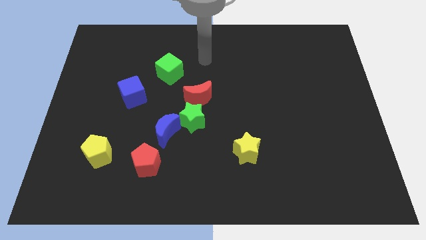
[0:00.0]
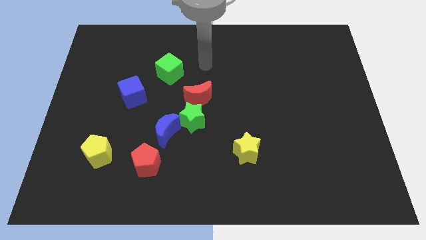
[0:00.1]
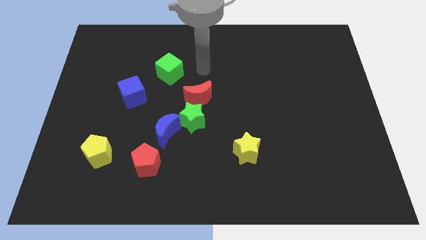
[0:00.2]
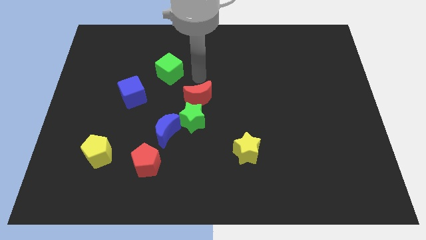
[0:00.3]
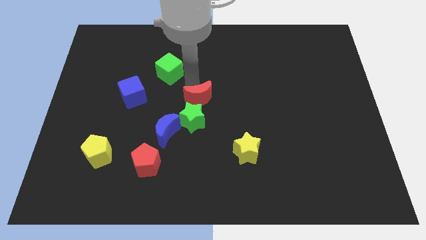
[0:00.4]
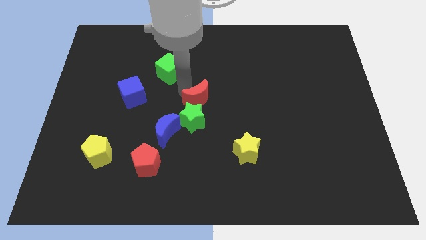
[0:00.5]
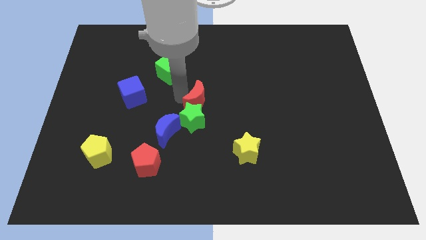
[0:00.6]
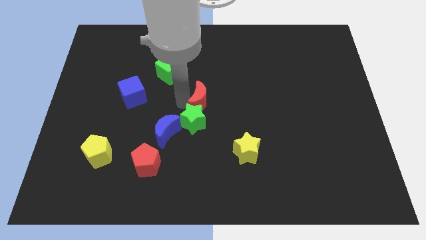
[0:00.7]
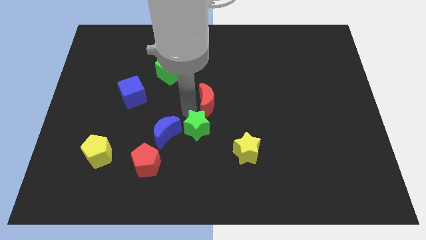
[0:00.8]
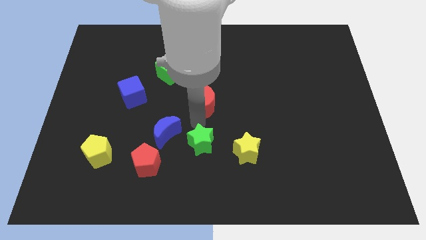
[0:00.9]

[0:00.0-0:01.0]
move the red moon away from the green star

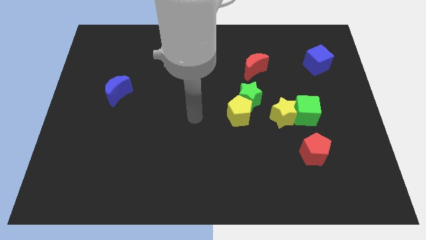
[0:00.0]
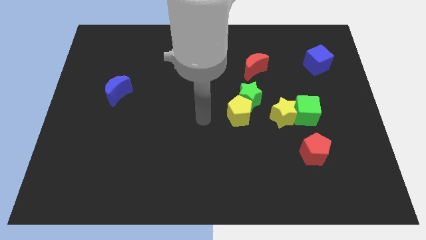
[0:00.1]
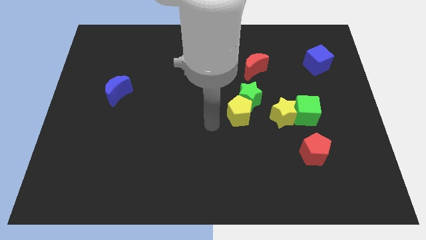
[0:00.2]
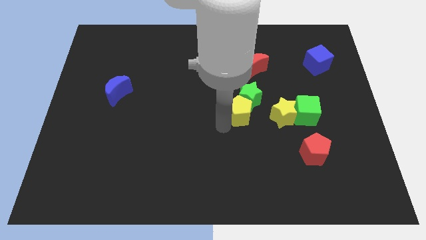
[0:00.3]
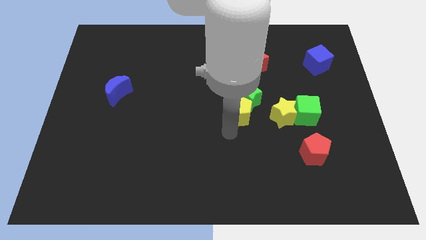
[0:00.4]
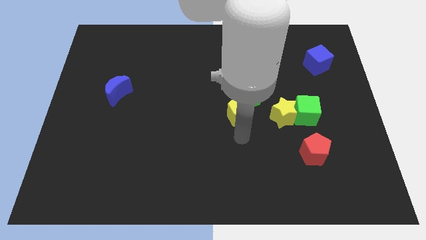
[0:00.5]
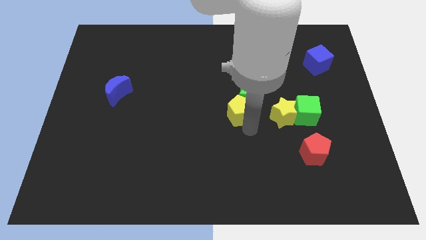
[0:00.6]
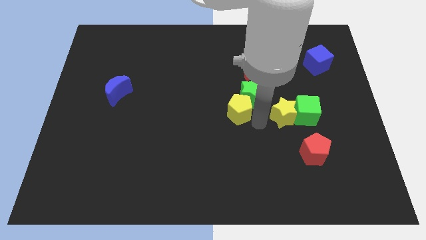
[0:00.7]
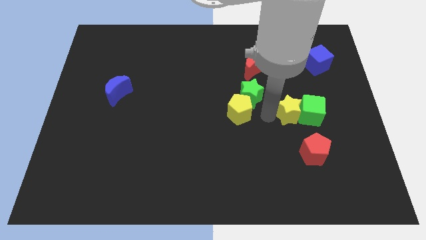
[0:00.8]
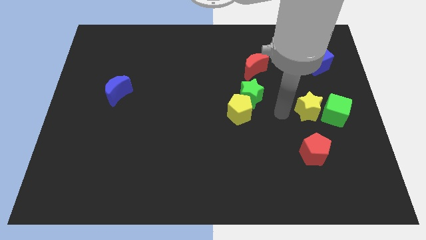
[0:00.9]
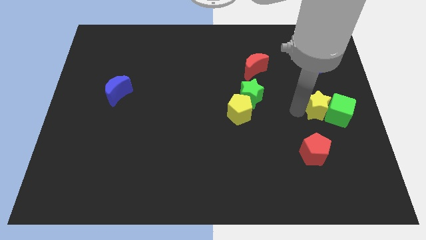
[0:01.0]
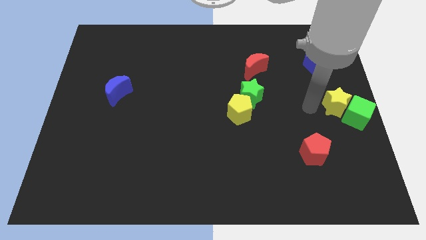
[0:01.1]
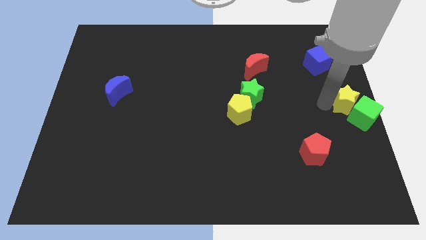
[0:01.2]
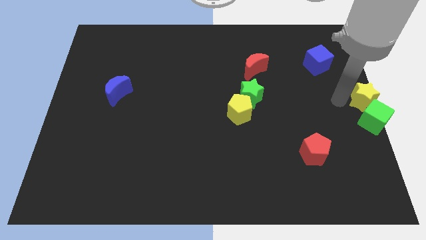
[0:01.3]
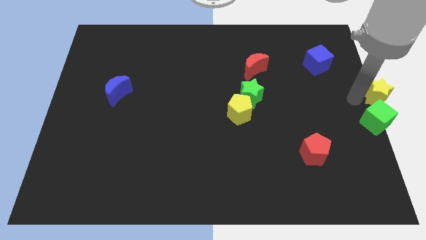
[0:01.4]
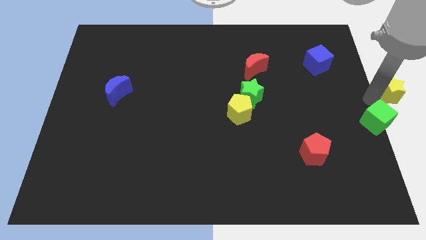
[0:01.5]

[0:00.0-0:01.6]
move the green cube away from the yellow star

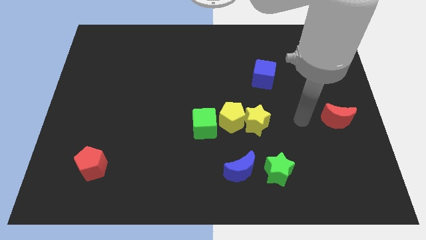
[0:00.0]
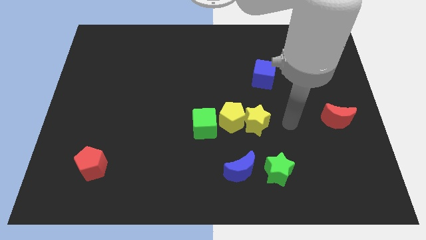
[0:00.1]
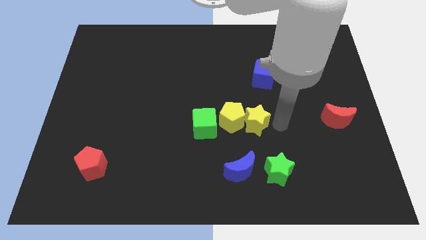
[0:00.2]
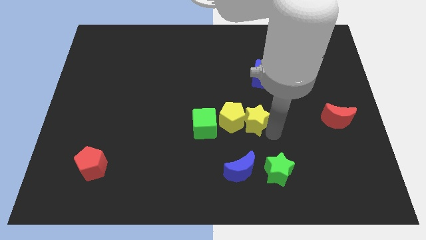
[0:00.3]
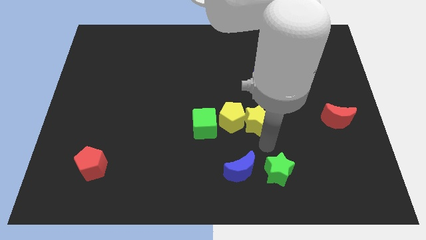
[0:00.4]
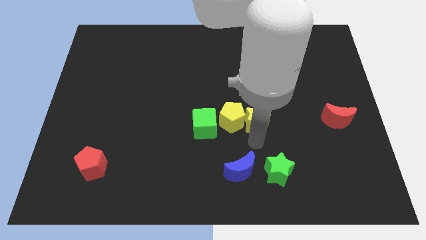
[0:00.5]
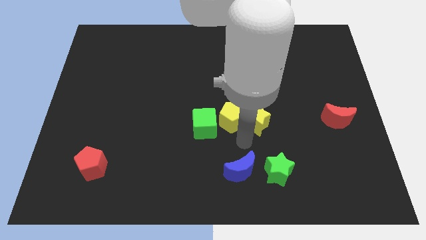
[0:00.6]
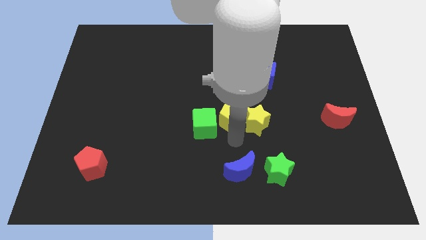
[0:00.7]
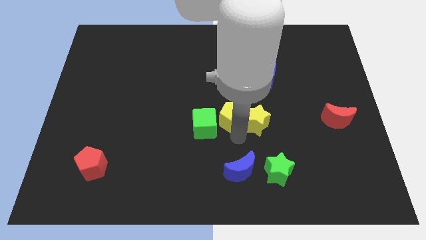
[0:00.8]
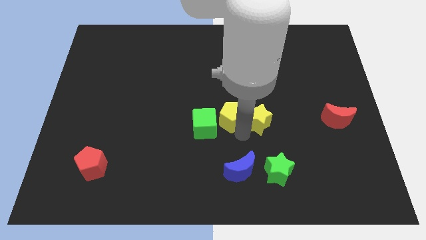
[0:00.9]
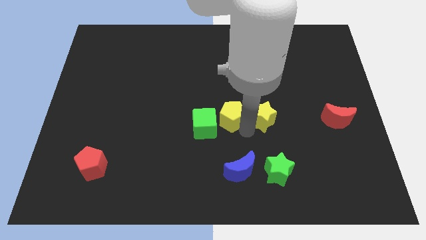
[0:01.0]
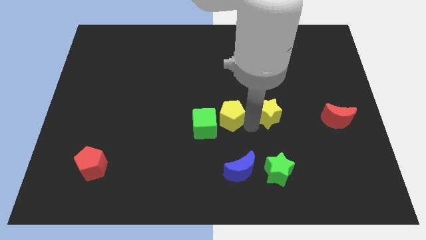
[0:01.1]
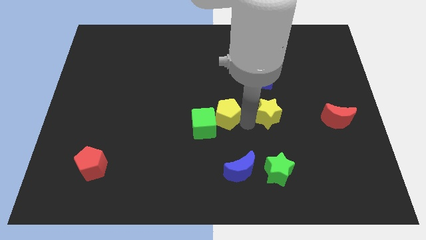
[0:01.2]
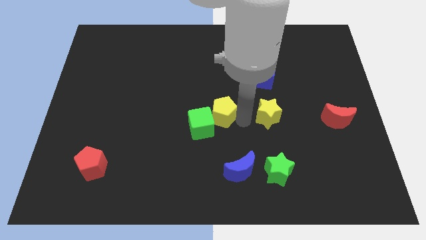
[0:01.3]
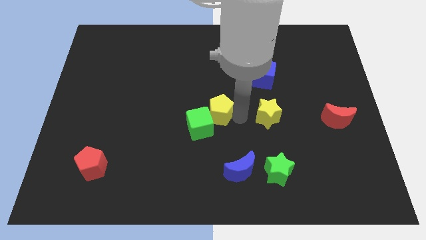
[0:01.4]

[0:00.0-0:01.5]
separate the yellow star from the yellow pentagon

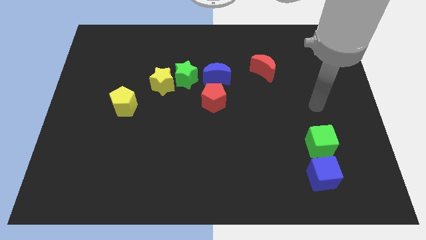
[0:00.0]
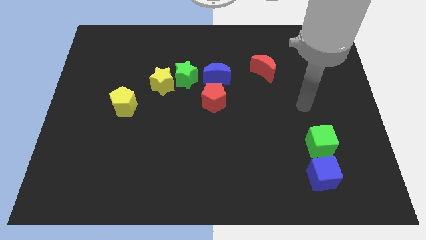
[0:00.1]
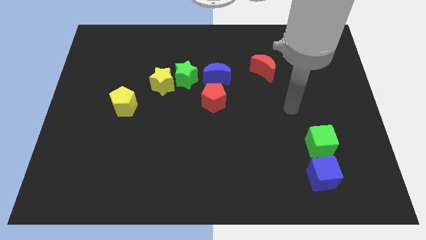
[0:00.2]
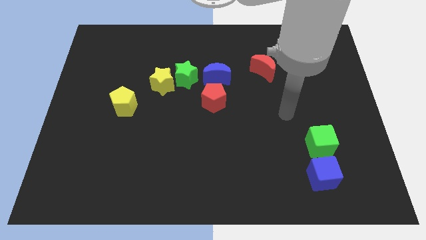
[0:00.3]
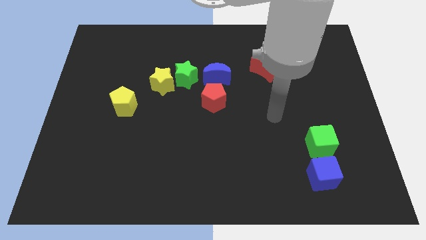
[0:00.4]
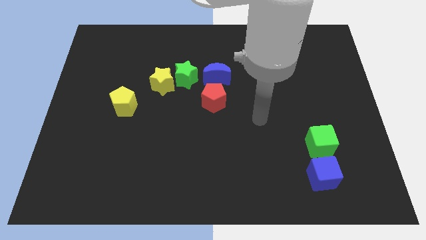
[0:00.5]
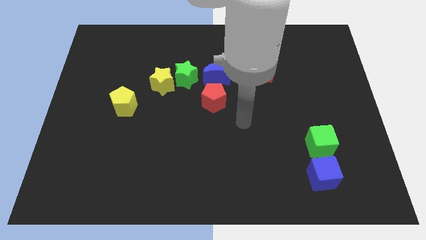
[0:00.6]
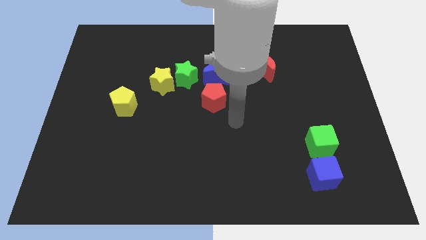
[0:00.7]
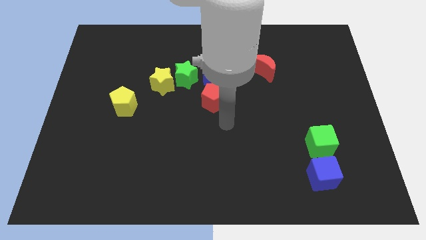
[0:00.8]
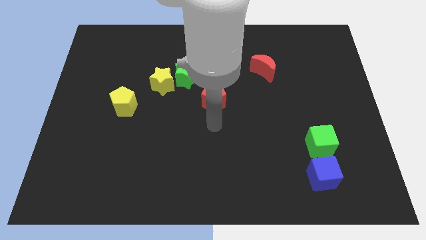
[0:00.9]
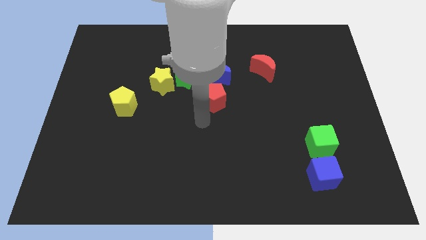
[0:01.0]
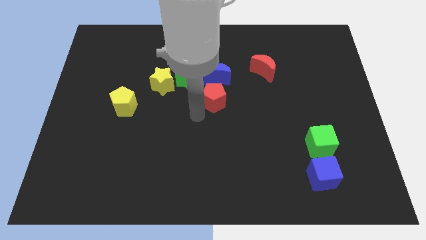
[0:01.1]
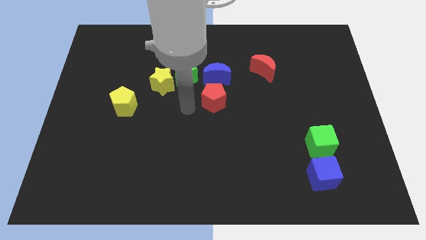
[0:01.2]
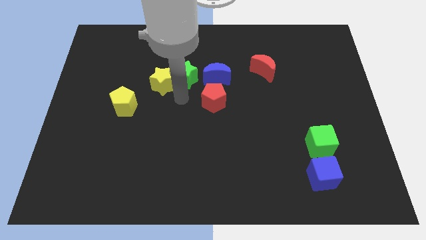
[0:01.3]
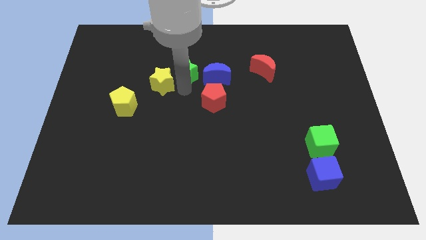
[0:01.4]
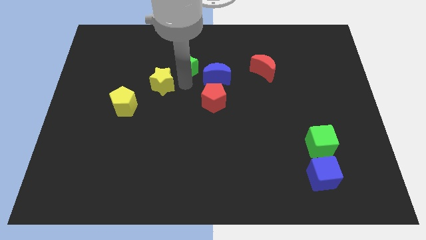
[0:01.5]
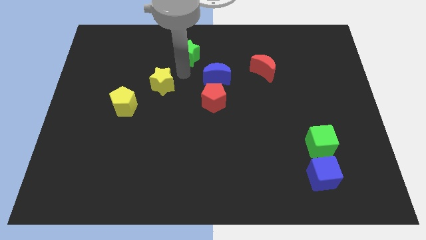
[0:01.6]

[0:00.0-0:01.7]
separate the yellow star from the green star

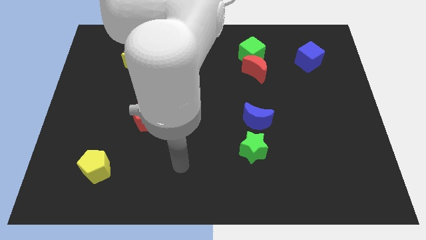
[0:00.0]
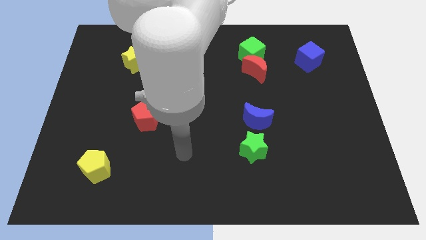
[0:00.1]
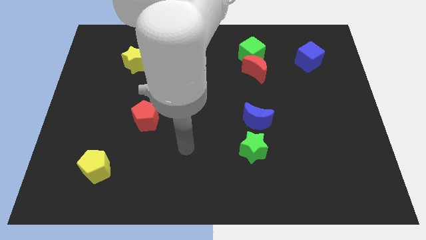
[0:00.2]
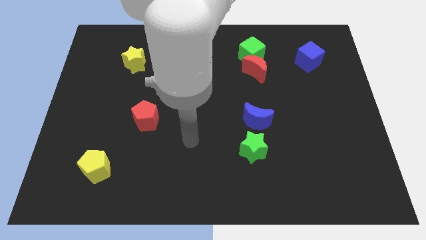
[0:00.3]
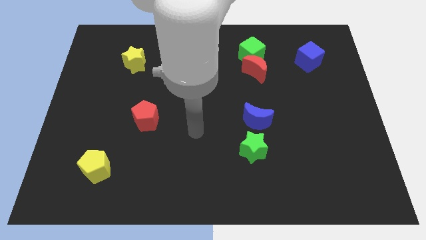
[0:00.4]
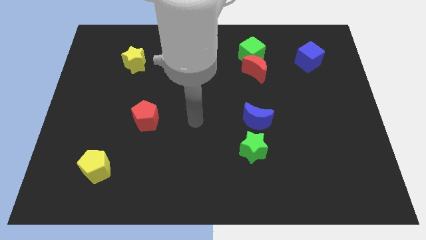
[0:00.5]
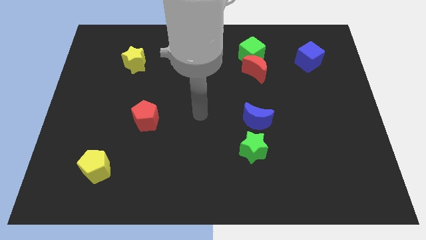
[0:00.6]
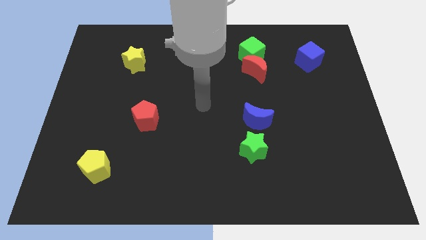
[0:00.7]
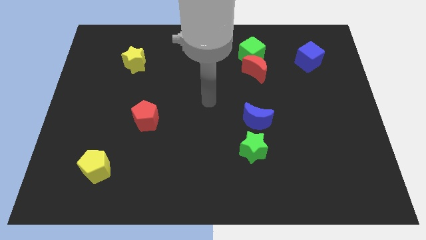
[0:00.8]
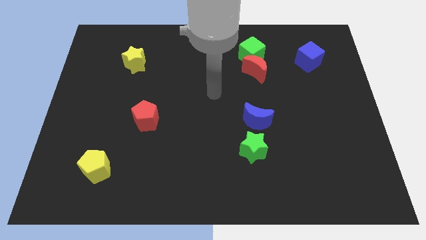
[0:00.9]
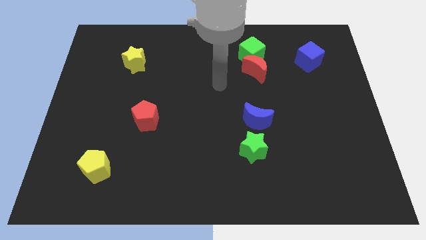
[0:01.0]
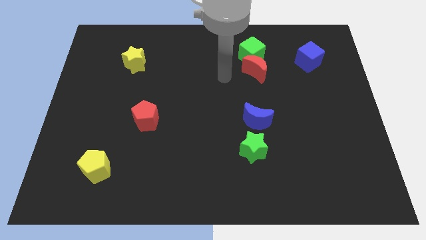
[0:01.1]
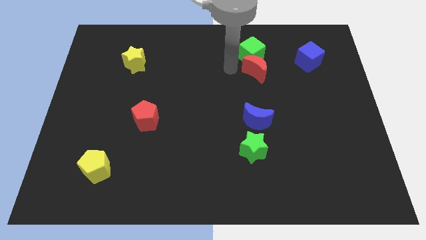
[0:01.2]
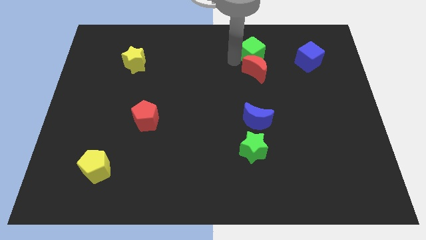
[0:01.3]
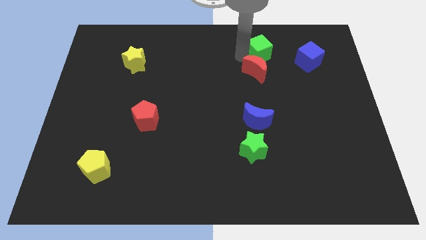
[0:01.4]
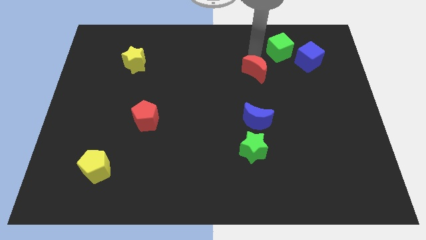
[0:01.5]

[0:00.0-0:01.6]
separate the red moon from the green cube

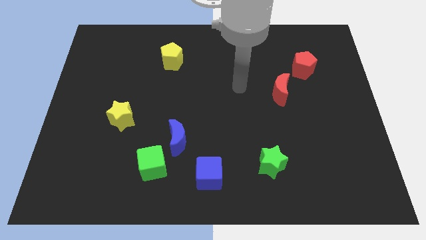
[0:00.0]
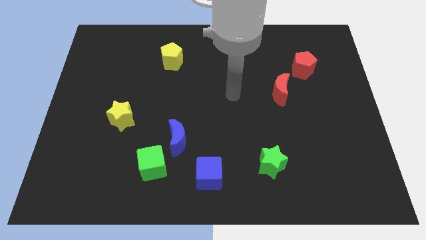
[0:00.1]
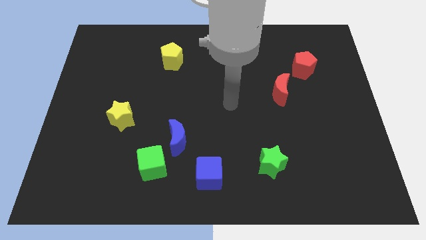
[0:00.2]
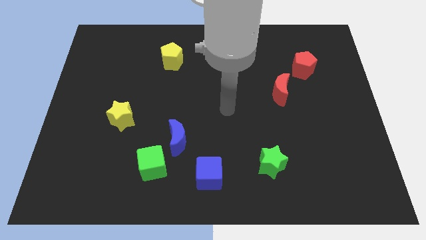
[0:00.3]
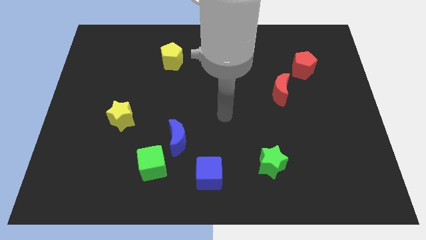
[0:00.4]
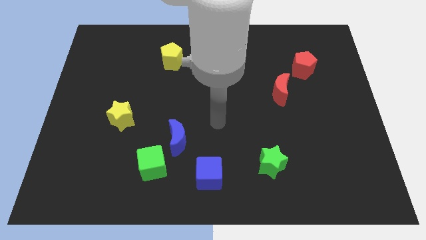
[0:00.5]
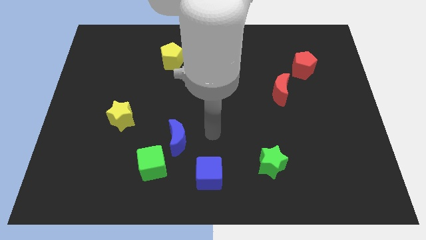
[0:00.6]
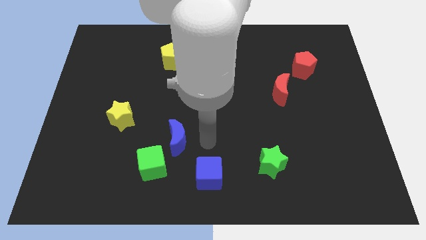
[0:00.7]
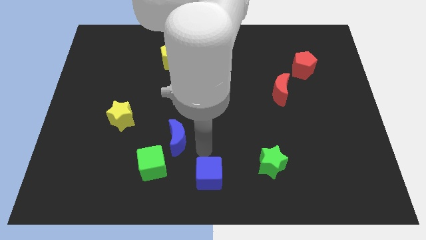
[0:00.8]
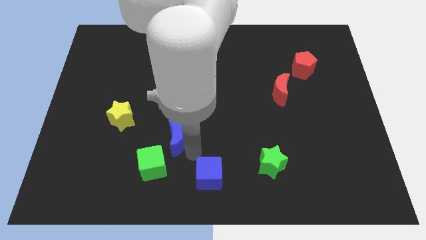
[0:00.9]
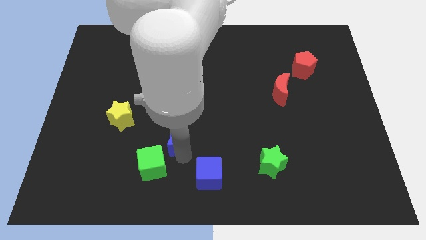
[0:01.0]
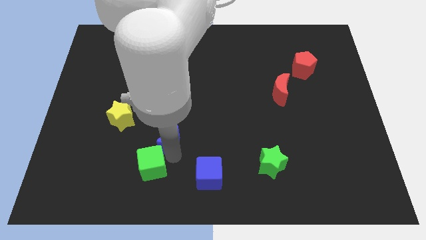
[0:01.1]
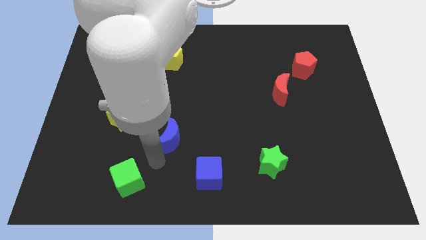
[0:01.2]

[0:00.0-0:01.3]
pull the blue moon apart from the green cube

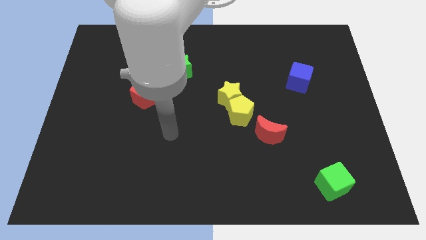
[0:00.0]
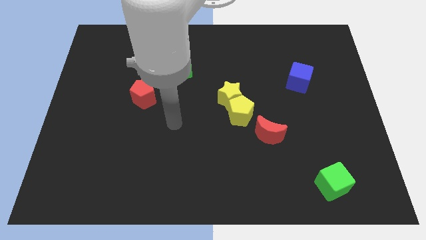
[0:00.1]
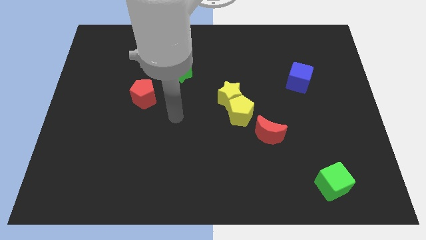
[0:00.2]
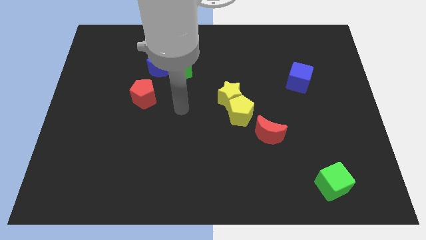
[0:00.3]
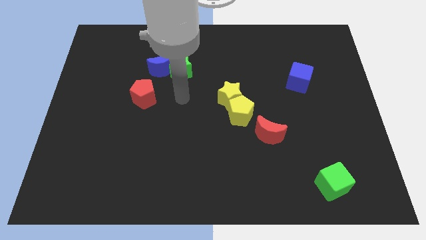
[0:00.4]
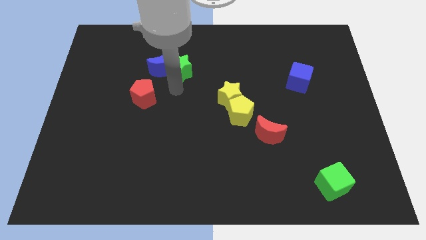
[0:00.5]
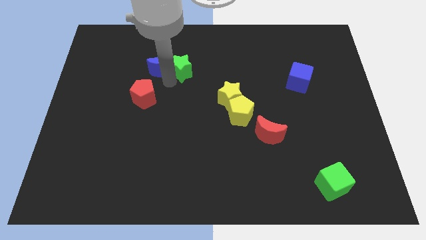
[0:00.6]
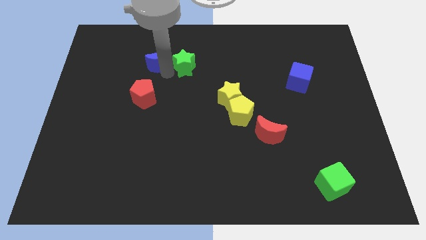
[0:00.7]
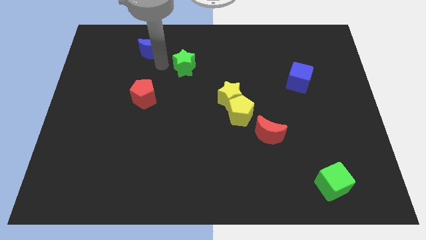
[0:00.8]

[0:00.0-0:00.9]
pull the green star apart from the blue moon
